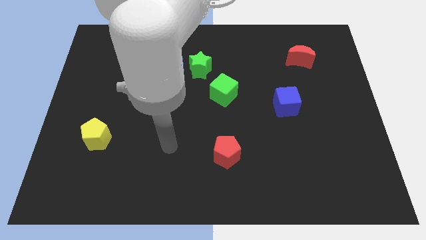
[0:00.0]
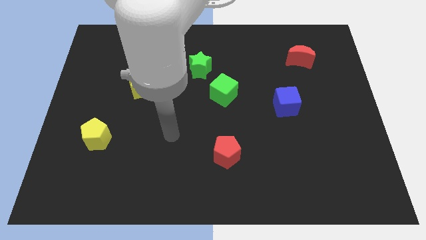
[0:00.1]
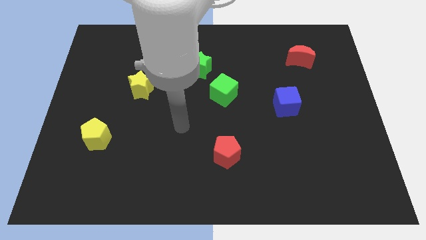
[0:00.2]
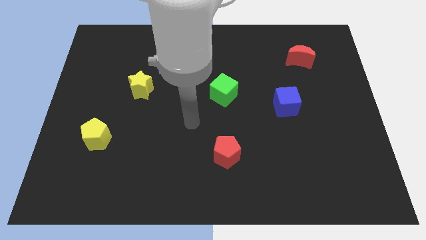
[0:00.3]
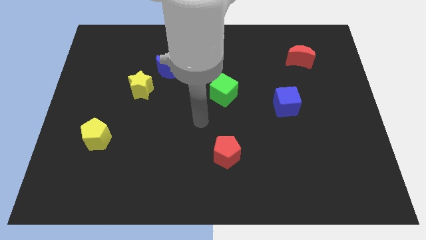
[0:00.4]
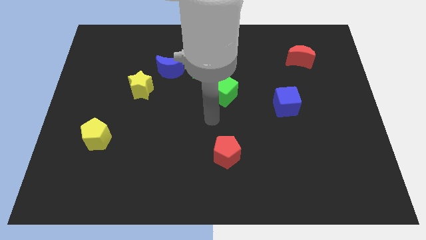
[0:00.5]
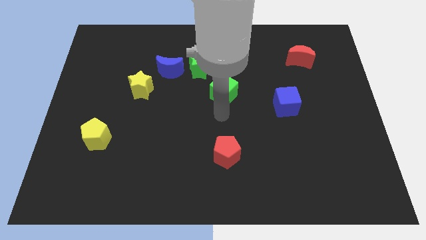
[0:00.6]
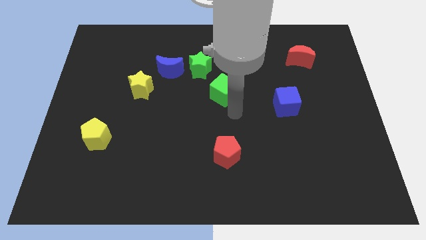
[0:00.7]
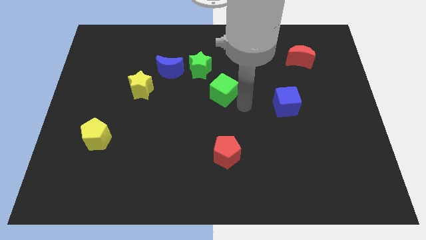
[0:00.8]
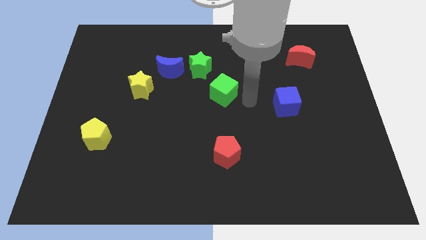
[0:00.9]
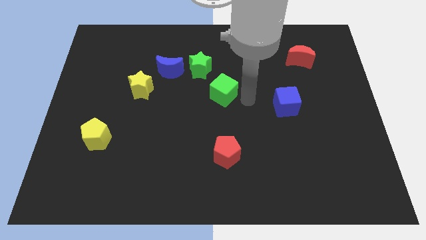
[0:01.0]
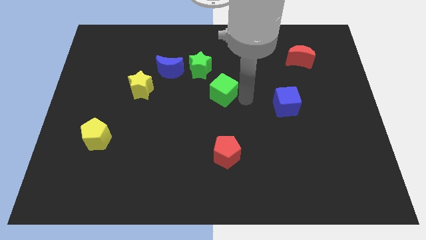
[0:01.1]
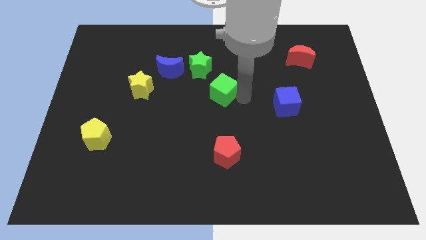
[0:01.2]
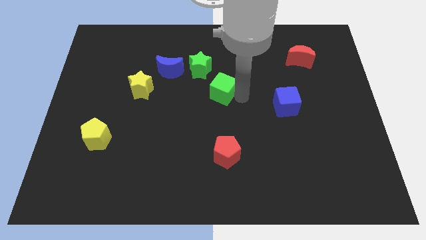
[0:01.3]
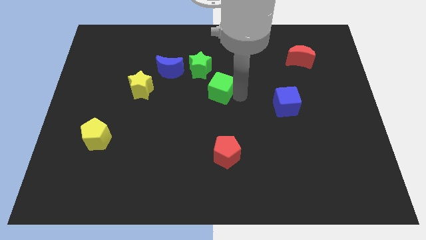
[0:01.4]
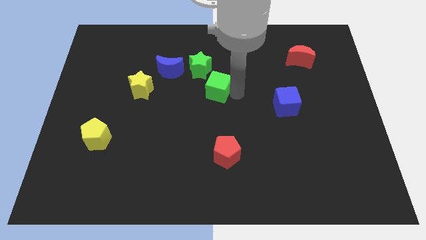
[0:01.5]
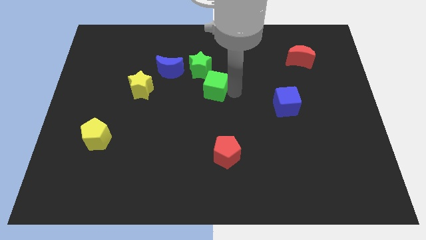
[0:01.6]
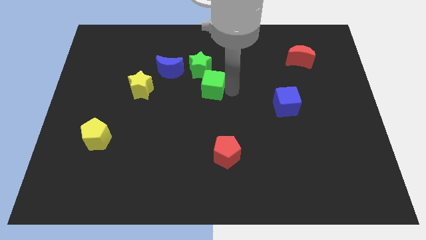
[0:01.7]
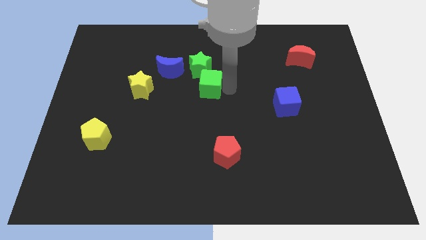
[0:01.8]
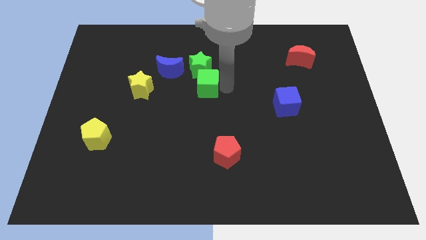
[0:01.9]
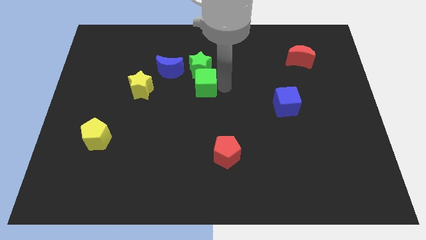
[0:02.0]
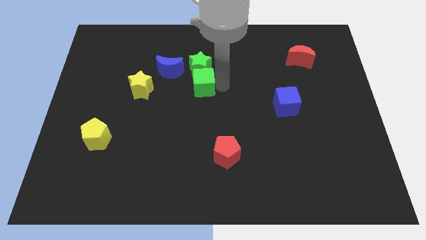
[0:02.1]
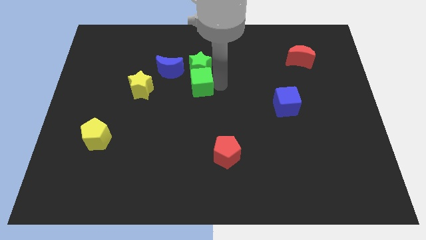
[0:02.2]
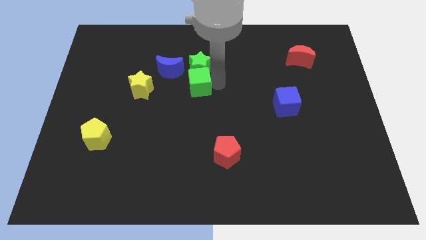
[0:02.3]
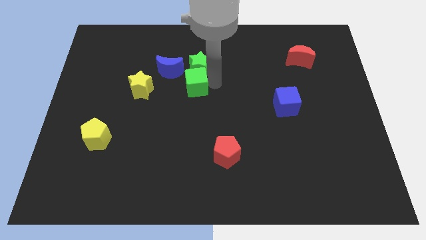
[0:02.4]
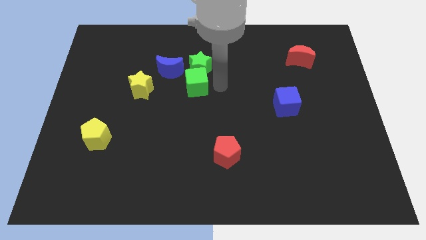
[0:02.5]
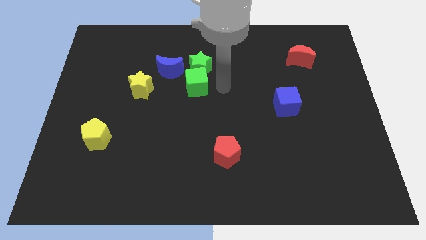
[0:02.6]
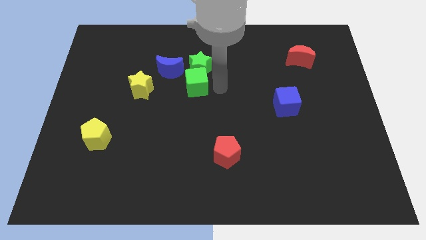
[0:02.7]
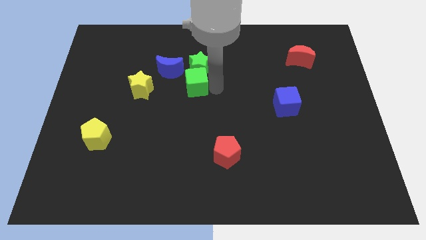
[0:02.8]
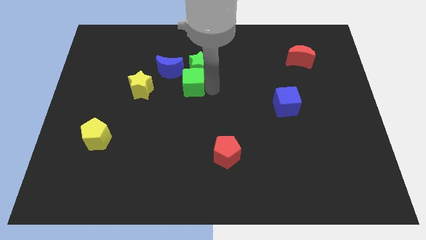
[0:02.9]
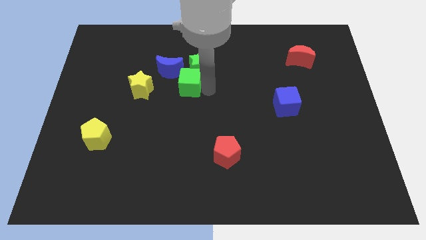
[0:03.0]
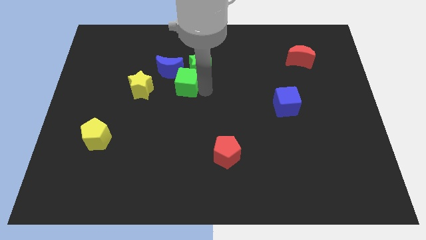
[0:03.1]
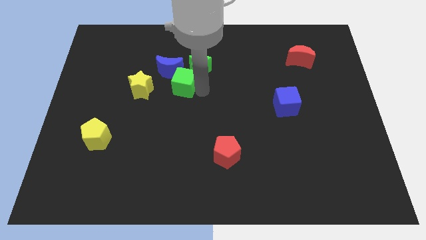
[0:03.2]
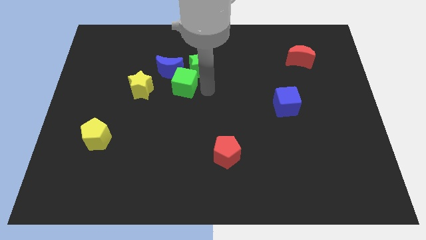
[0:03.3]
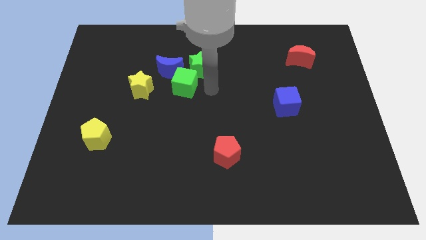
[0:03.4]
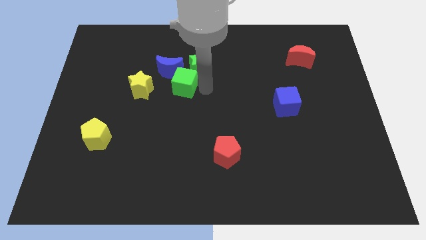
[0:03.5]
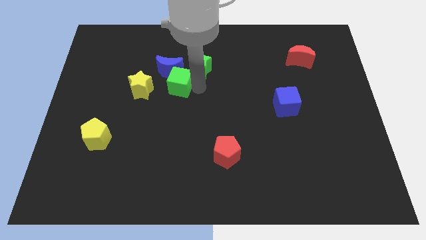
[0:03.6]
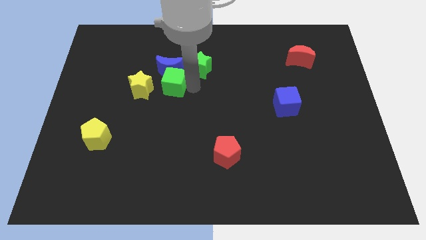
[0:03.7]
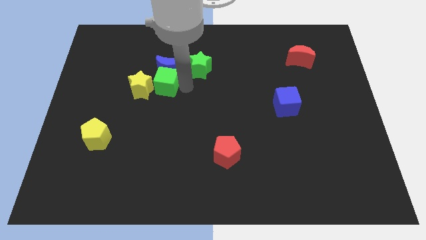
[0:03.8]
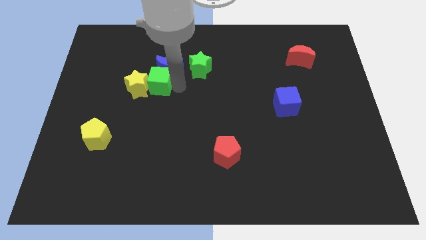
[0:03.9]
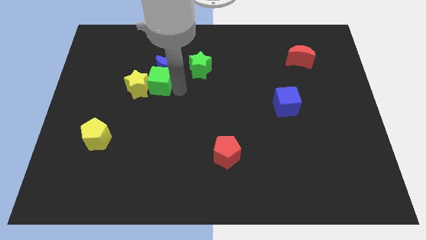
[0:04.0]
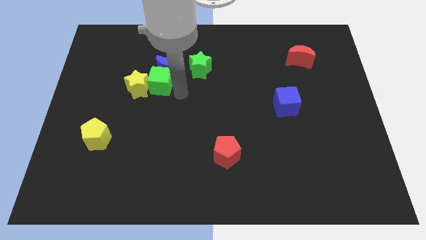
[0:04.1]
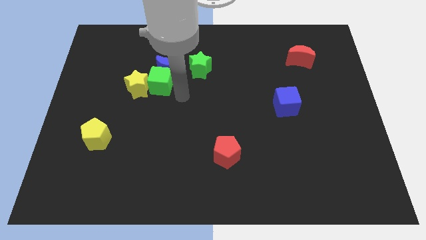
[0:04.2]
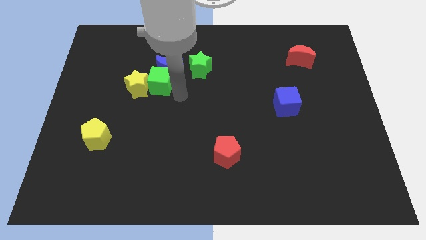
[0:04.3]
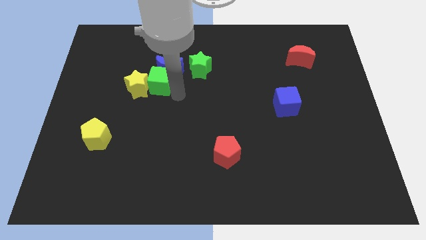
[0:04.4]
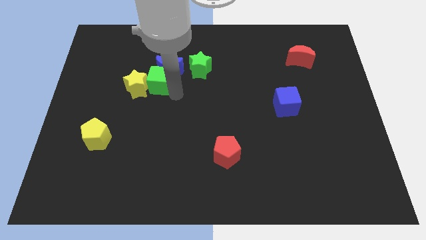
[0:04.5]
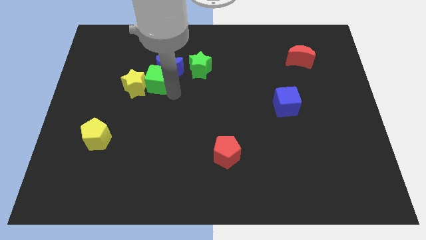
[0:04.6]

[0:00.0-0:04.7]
slide the green cube to the left of the green star

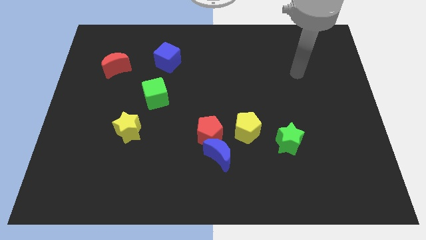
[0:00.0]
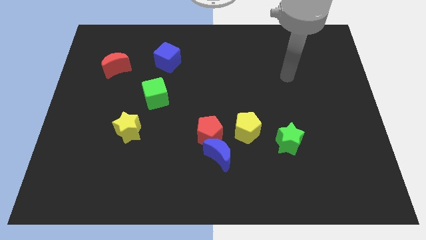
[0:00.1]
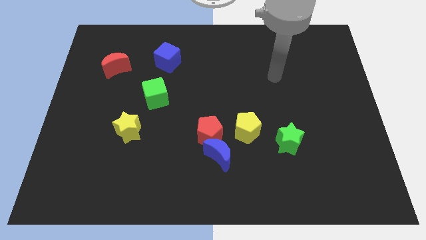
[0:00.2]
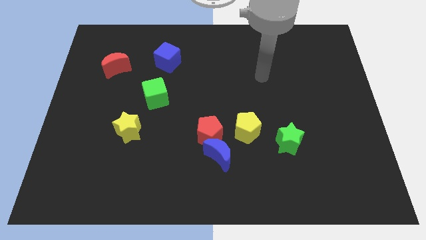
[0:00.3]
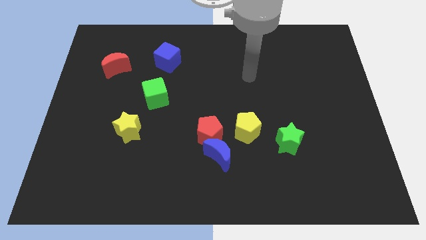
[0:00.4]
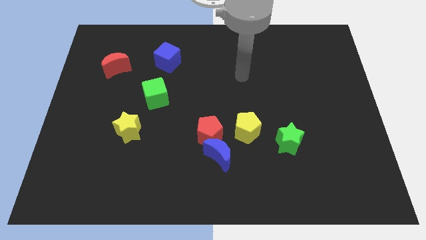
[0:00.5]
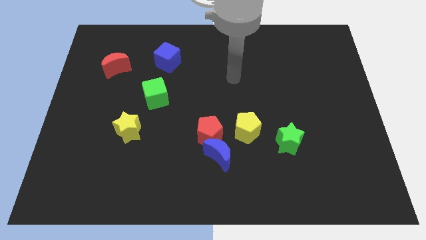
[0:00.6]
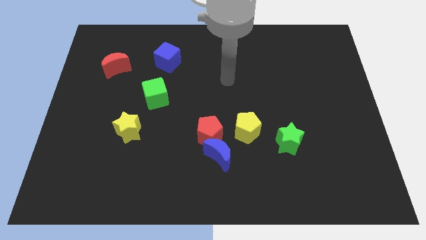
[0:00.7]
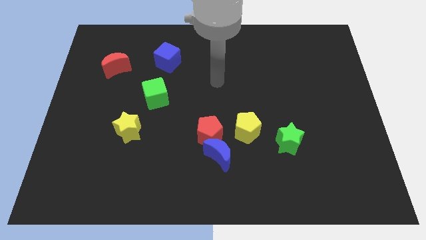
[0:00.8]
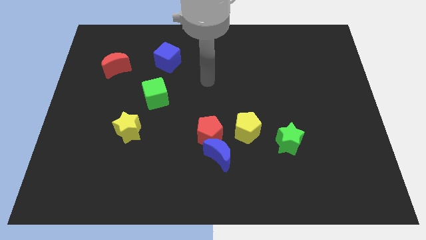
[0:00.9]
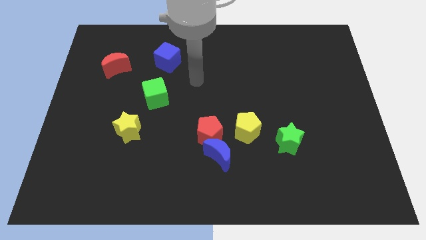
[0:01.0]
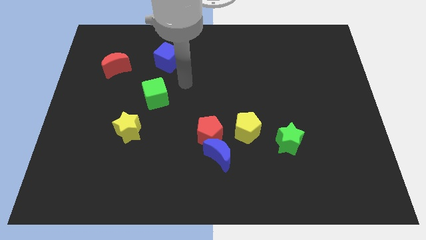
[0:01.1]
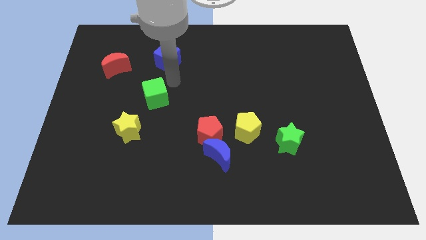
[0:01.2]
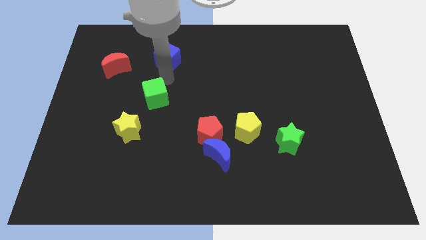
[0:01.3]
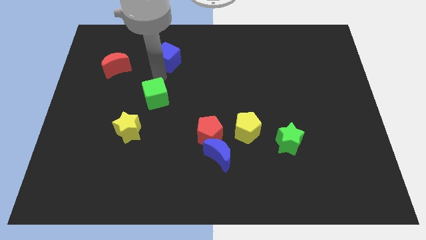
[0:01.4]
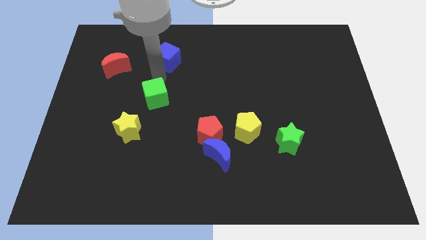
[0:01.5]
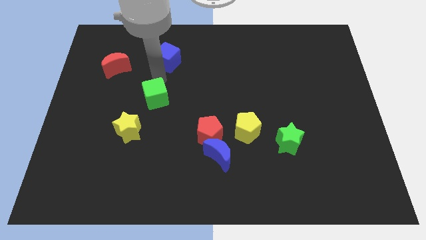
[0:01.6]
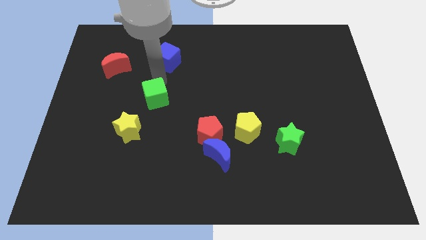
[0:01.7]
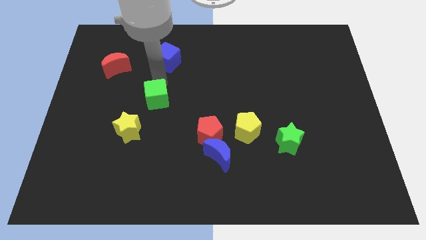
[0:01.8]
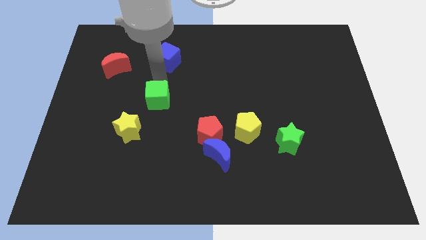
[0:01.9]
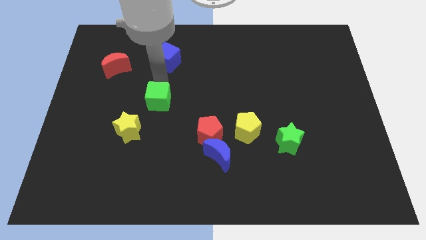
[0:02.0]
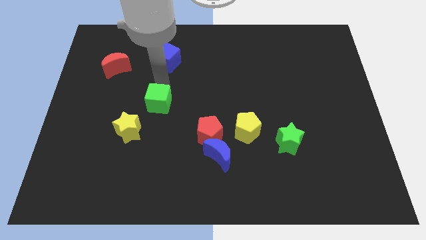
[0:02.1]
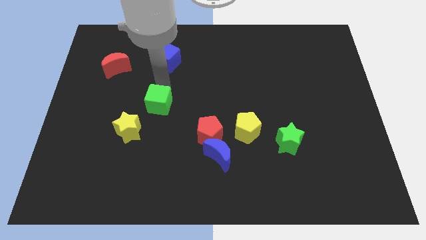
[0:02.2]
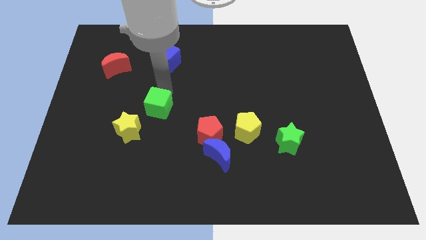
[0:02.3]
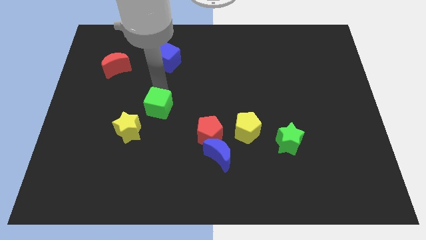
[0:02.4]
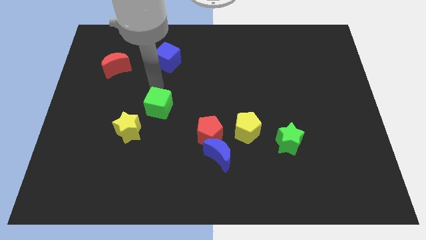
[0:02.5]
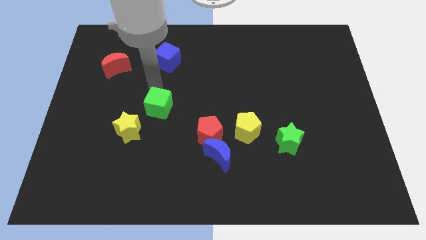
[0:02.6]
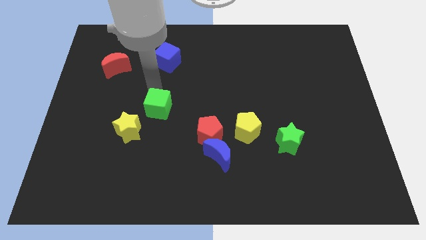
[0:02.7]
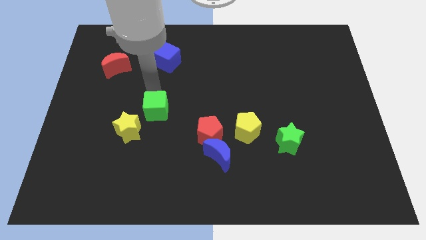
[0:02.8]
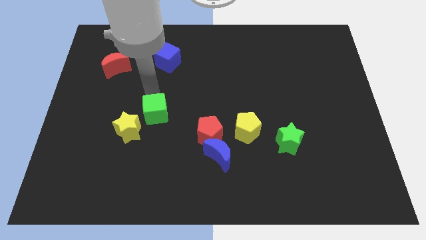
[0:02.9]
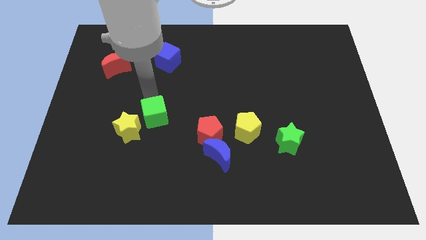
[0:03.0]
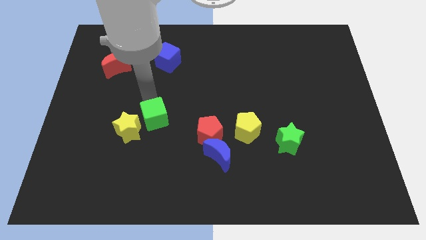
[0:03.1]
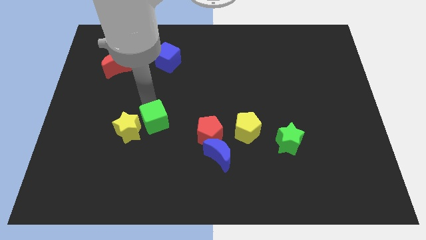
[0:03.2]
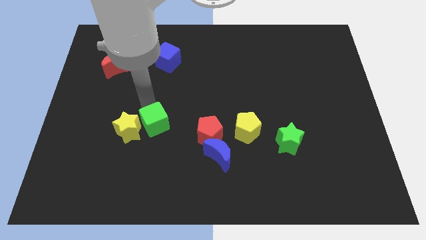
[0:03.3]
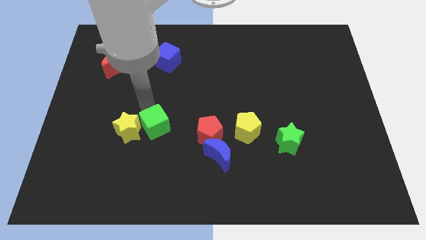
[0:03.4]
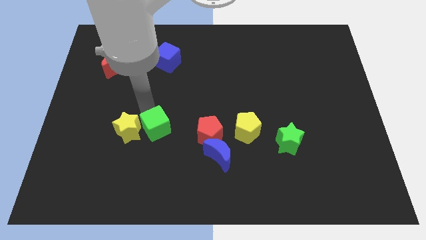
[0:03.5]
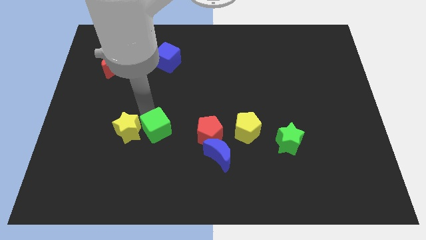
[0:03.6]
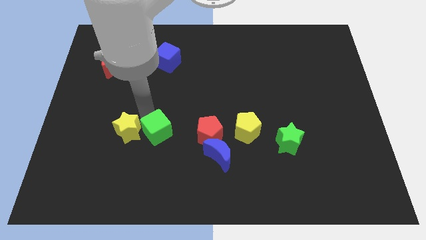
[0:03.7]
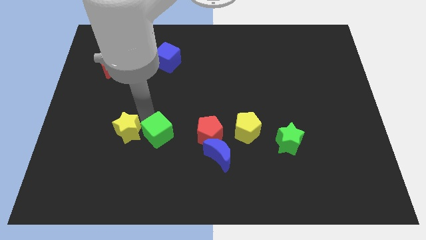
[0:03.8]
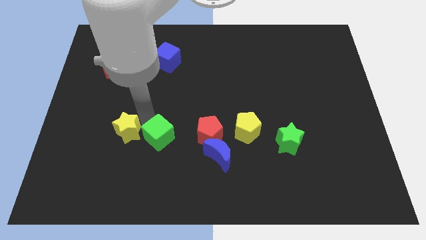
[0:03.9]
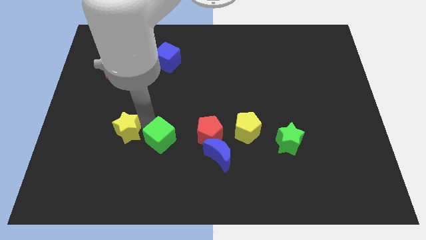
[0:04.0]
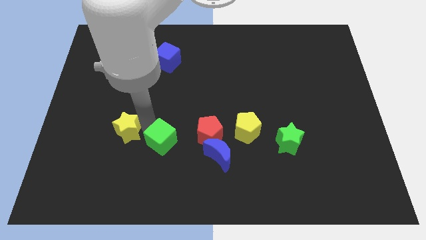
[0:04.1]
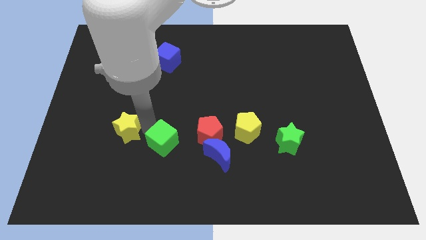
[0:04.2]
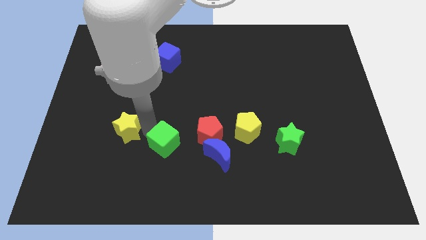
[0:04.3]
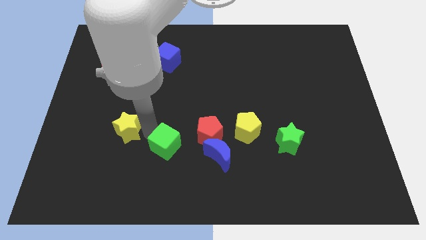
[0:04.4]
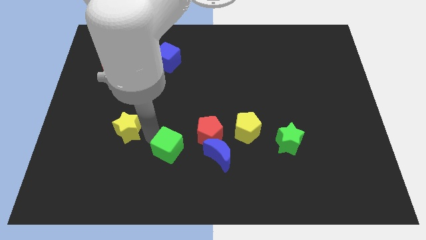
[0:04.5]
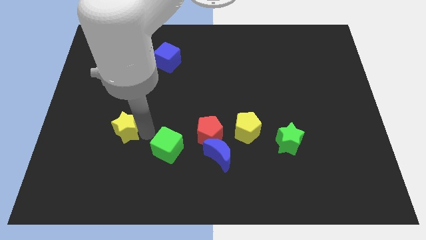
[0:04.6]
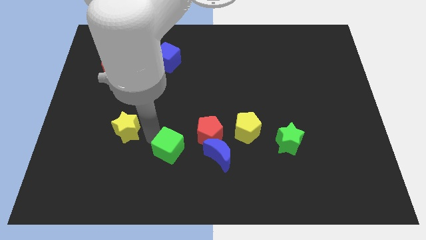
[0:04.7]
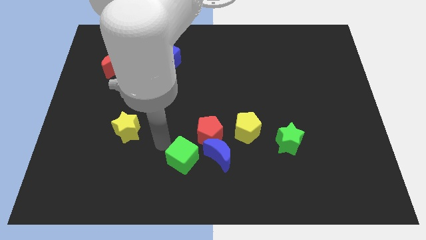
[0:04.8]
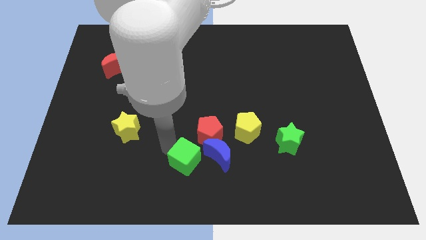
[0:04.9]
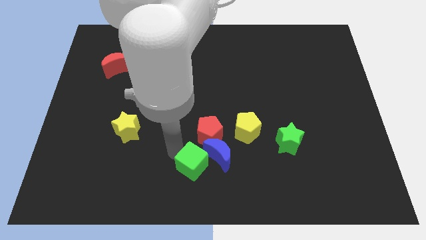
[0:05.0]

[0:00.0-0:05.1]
slide the green cube to the bottom of the red pentagon
